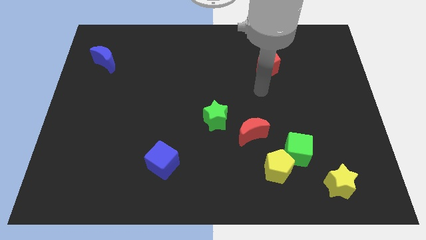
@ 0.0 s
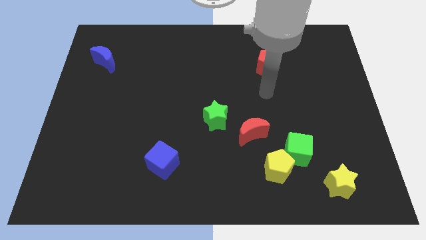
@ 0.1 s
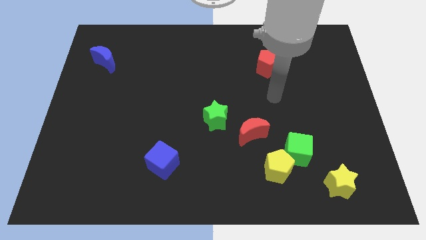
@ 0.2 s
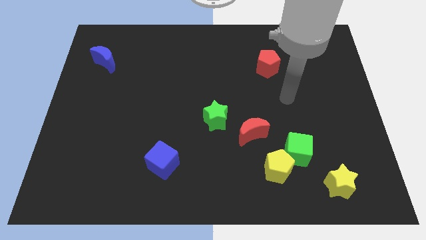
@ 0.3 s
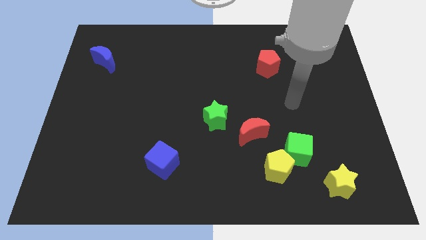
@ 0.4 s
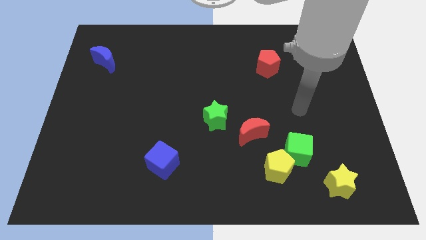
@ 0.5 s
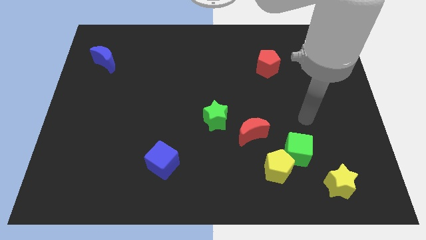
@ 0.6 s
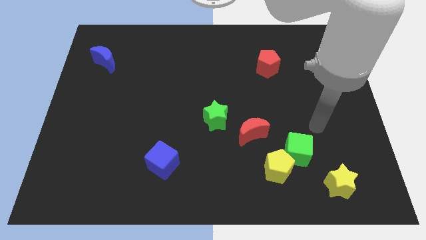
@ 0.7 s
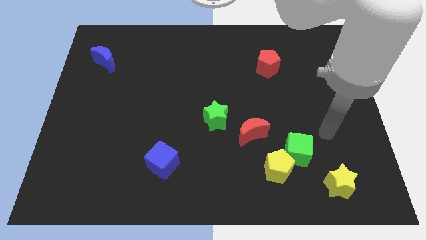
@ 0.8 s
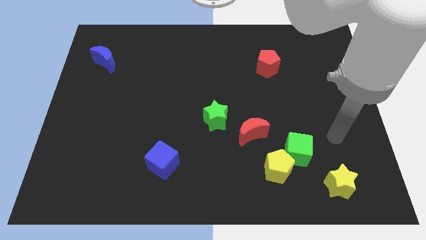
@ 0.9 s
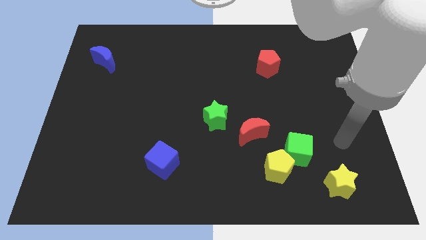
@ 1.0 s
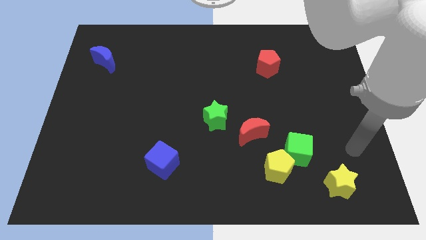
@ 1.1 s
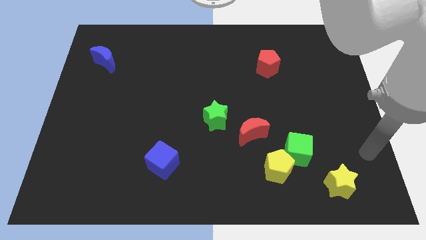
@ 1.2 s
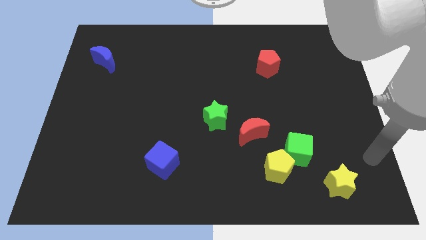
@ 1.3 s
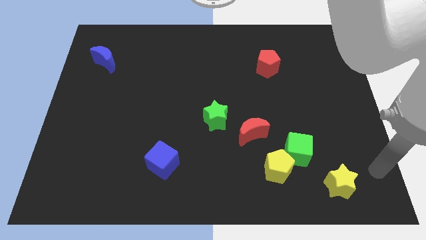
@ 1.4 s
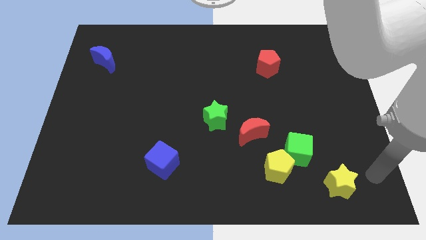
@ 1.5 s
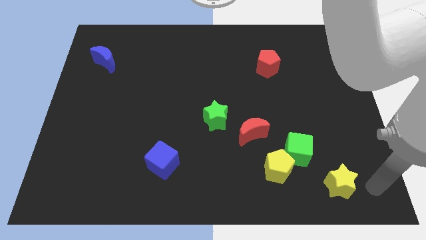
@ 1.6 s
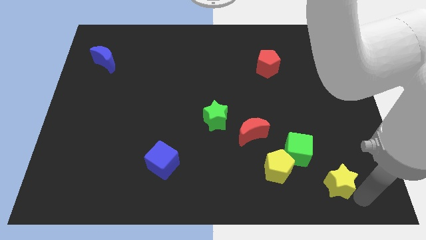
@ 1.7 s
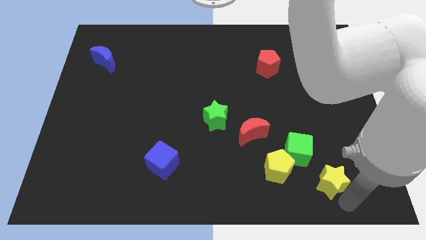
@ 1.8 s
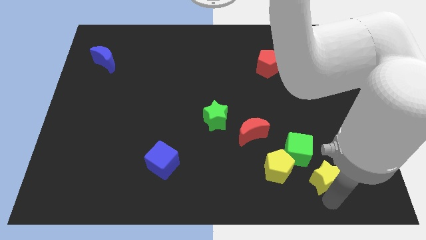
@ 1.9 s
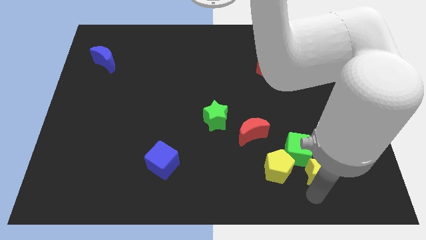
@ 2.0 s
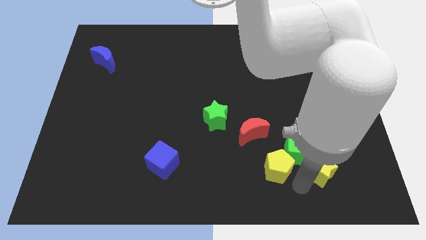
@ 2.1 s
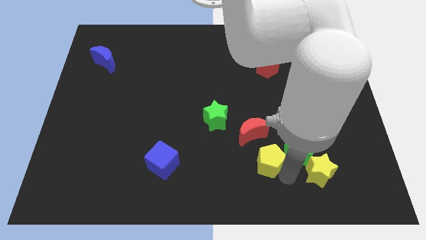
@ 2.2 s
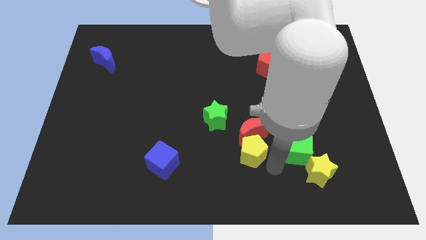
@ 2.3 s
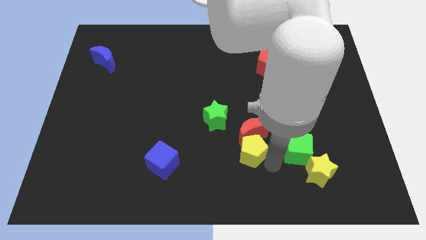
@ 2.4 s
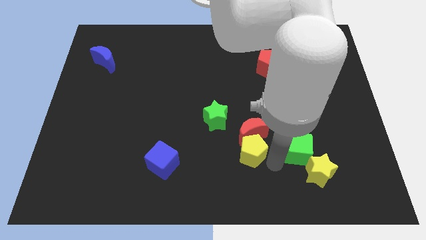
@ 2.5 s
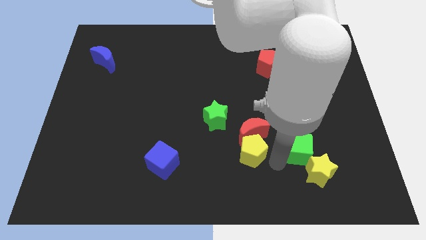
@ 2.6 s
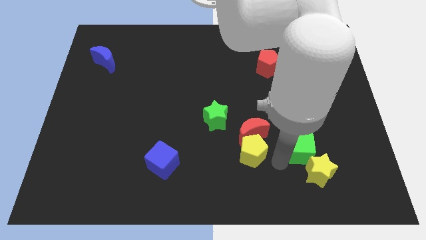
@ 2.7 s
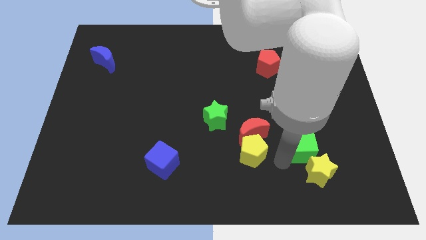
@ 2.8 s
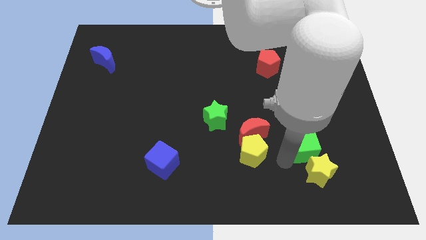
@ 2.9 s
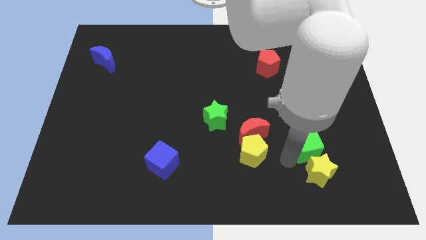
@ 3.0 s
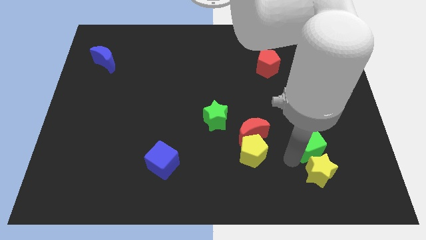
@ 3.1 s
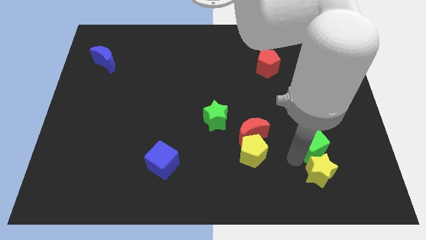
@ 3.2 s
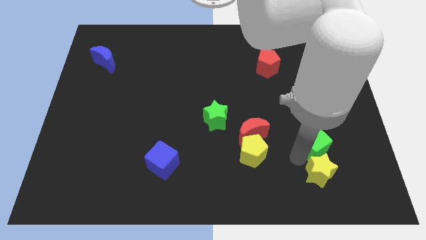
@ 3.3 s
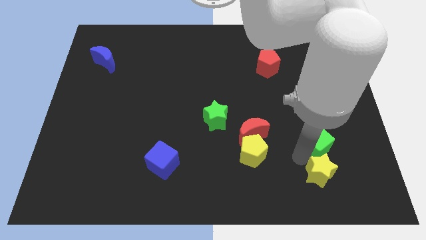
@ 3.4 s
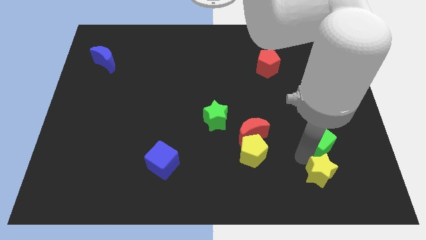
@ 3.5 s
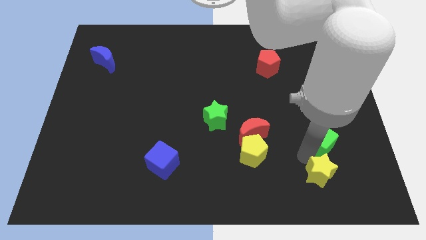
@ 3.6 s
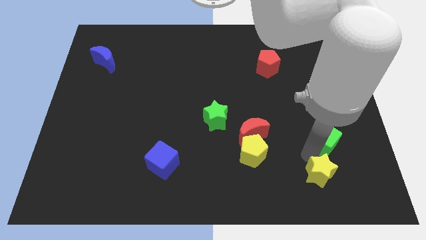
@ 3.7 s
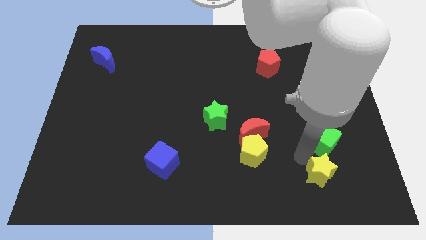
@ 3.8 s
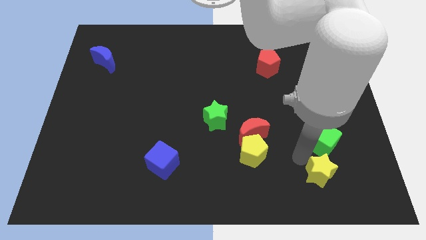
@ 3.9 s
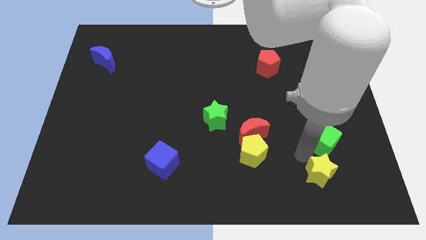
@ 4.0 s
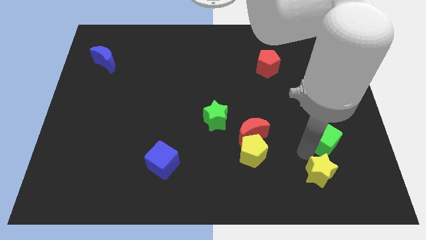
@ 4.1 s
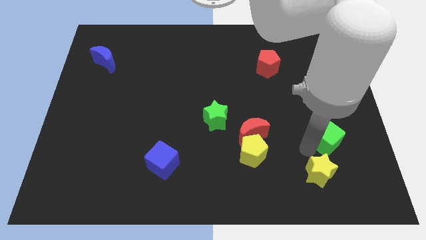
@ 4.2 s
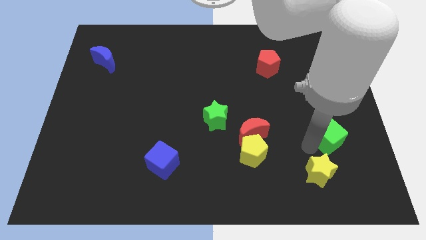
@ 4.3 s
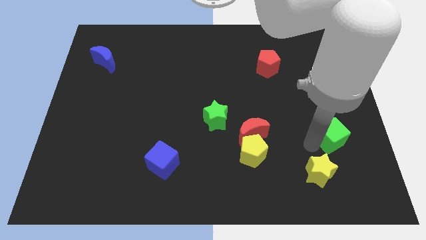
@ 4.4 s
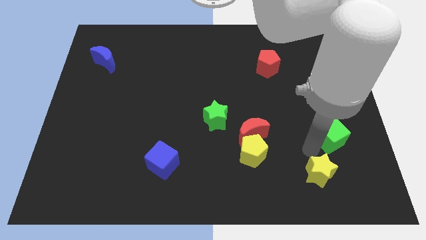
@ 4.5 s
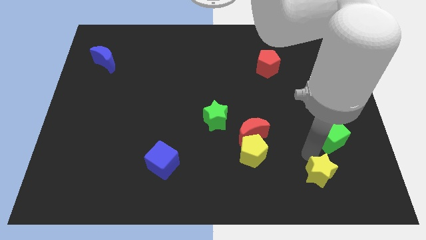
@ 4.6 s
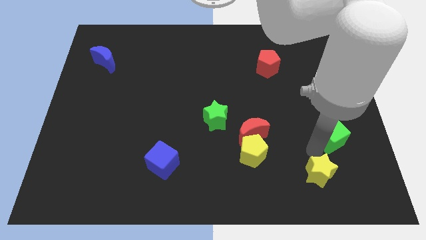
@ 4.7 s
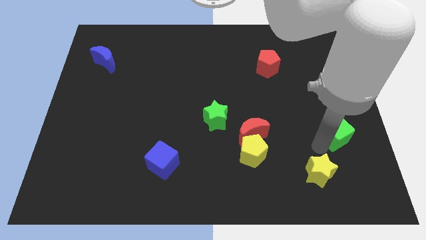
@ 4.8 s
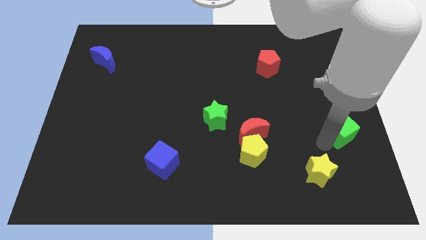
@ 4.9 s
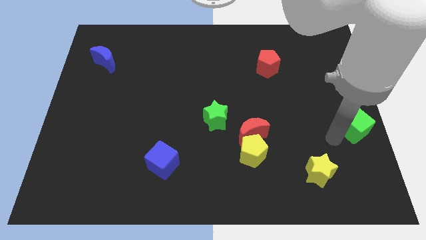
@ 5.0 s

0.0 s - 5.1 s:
push the green cube to the right side of the board

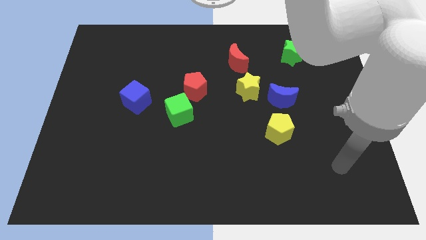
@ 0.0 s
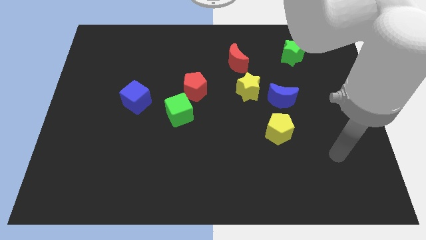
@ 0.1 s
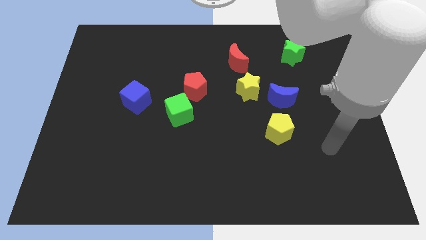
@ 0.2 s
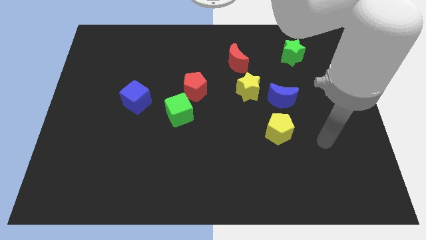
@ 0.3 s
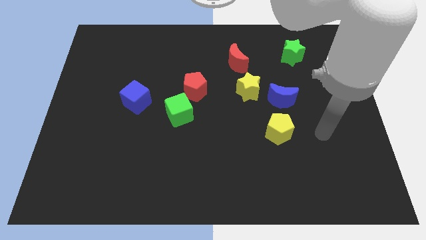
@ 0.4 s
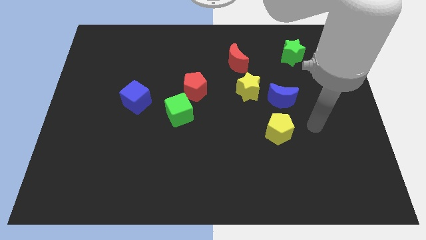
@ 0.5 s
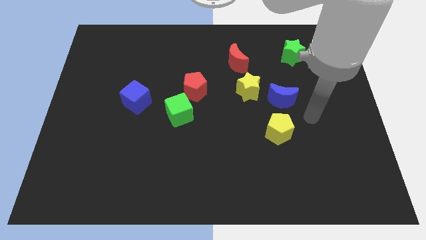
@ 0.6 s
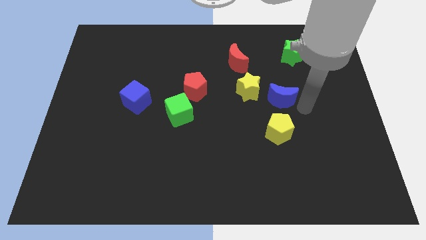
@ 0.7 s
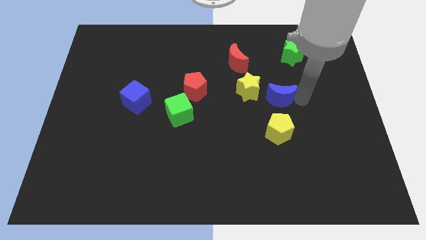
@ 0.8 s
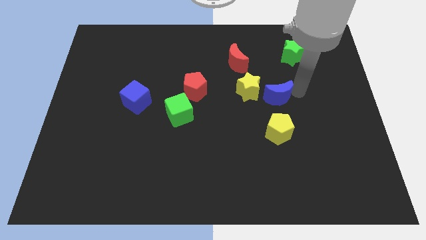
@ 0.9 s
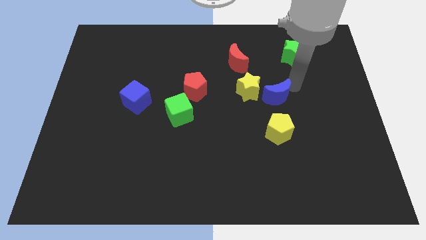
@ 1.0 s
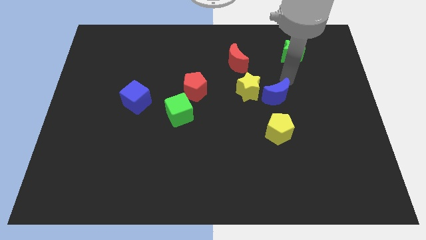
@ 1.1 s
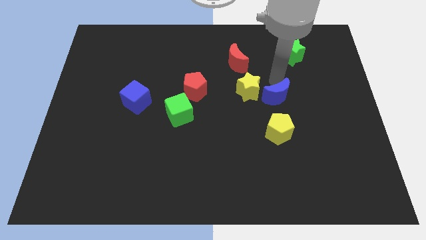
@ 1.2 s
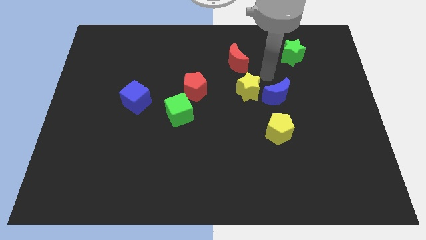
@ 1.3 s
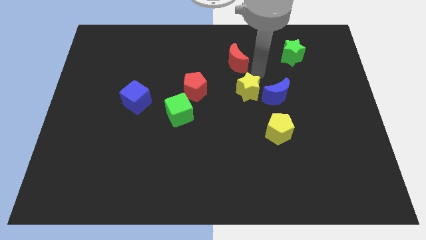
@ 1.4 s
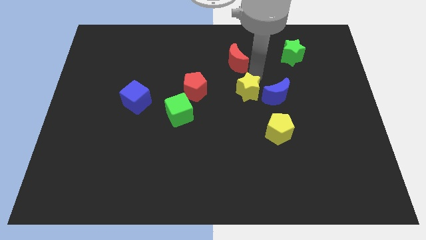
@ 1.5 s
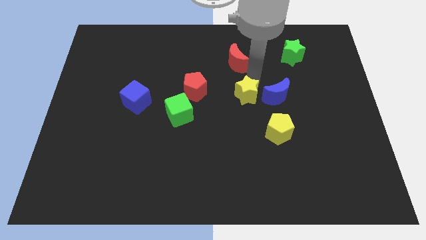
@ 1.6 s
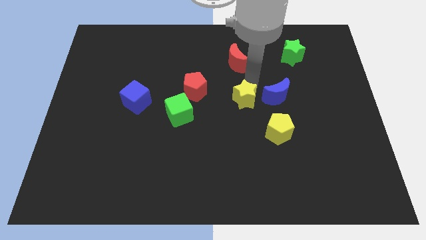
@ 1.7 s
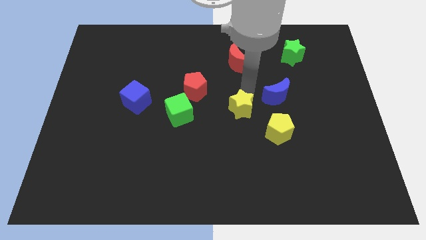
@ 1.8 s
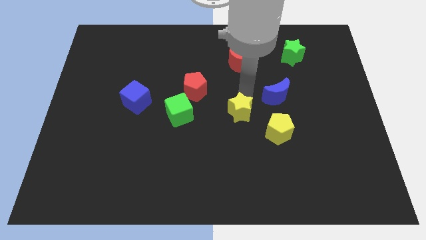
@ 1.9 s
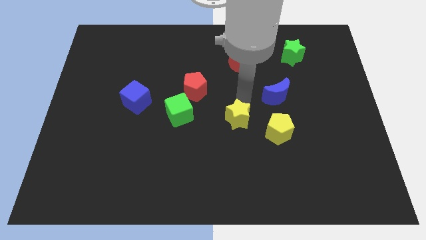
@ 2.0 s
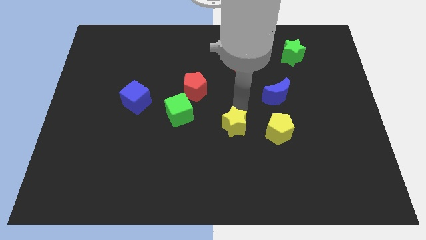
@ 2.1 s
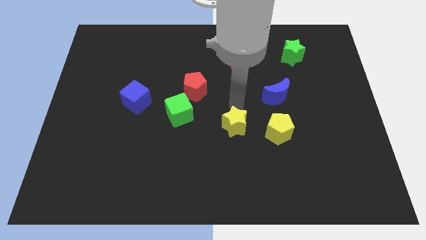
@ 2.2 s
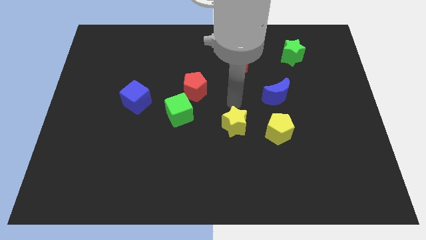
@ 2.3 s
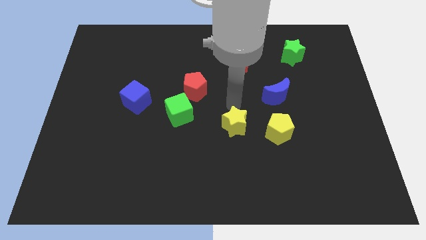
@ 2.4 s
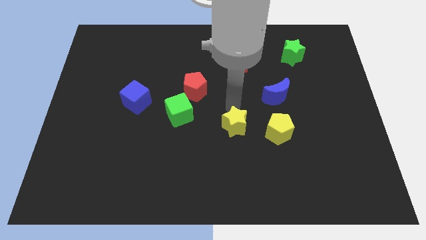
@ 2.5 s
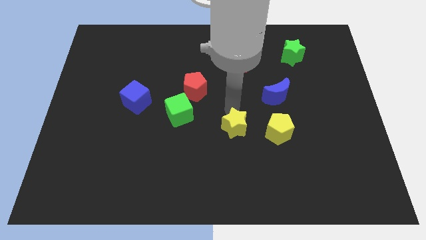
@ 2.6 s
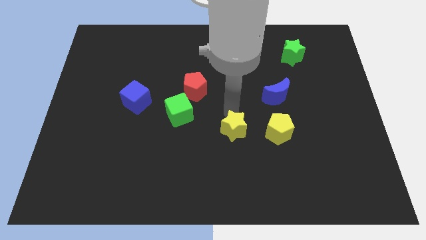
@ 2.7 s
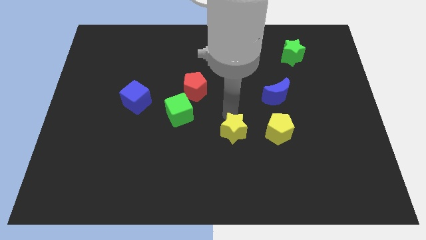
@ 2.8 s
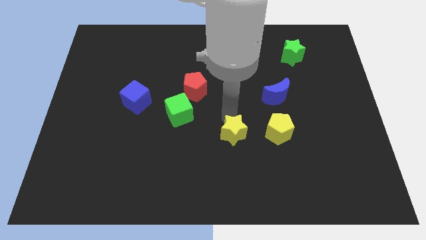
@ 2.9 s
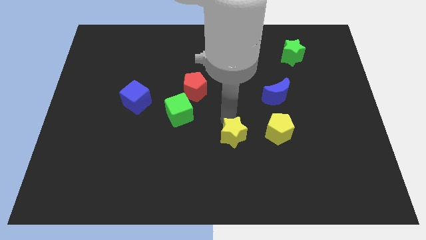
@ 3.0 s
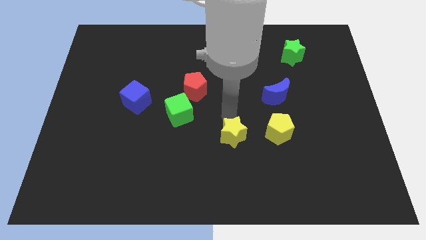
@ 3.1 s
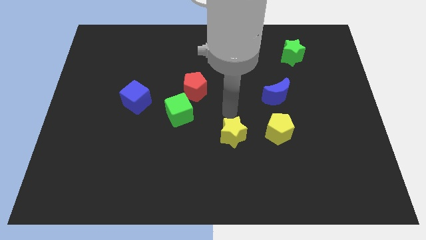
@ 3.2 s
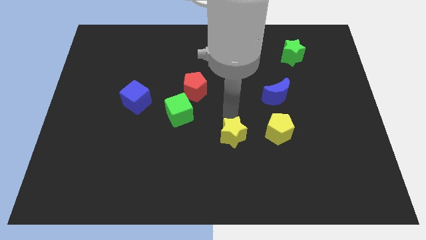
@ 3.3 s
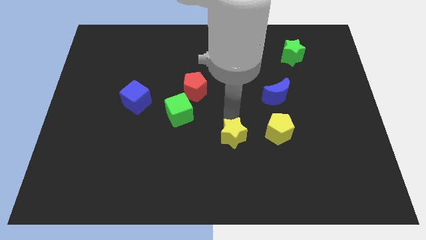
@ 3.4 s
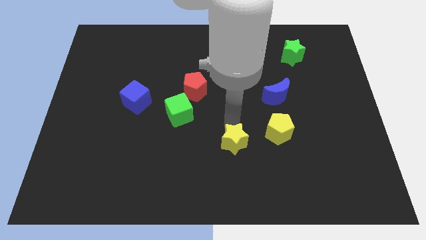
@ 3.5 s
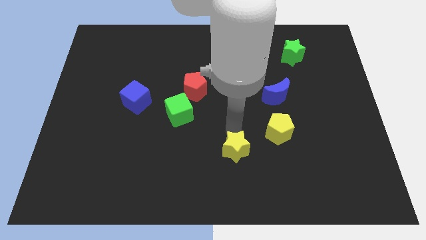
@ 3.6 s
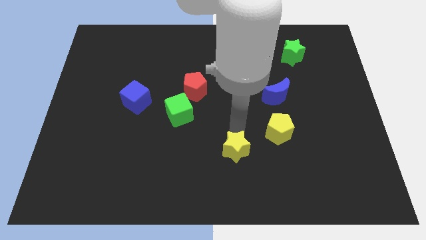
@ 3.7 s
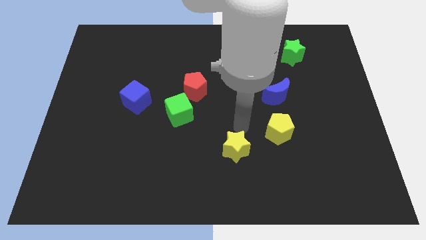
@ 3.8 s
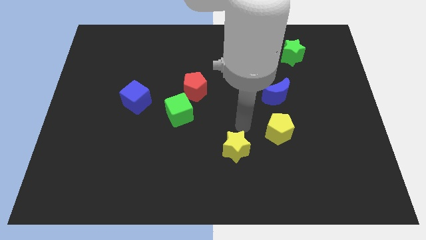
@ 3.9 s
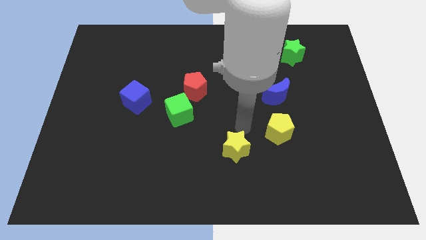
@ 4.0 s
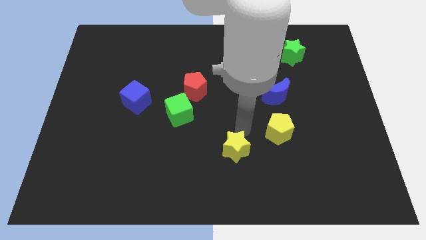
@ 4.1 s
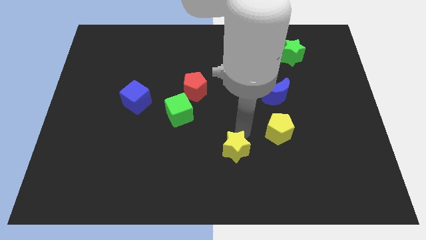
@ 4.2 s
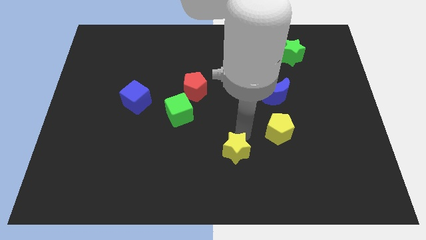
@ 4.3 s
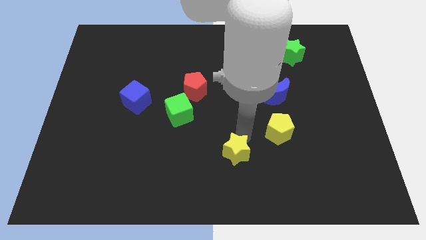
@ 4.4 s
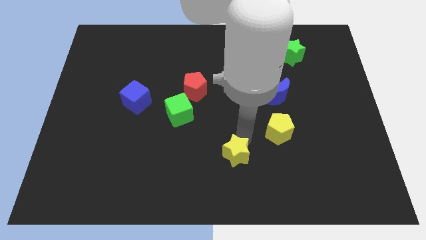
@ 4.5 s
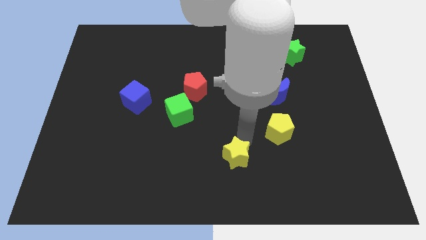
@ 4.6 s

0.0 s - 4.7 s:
slide the yellow star to the bottom
